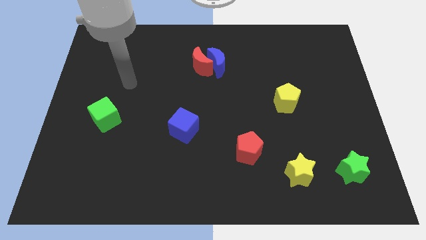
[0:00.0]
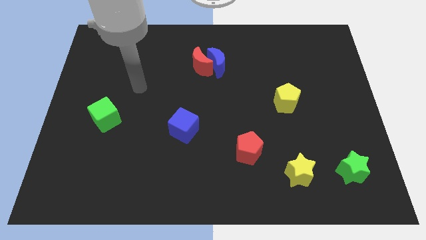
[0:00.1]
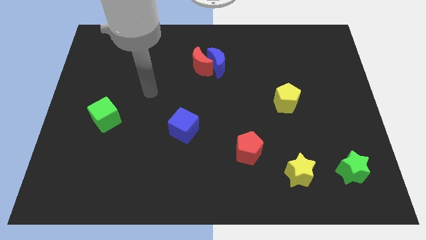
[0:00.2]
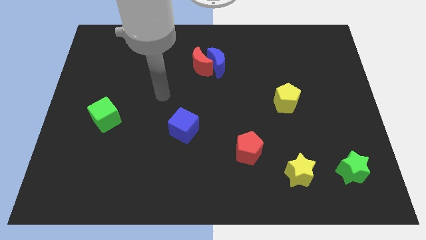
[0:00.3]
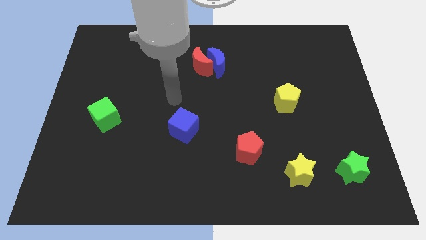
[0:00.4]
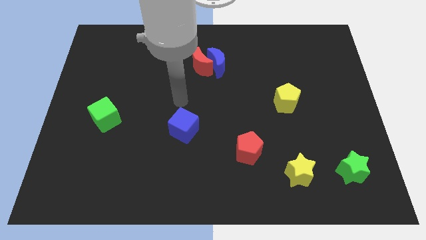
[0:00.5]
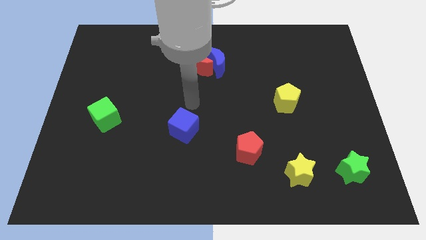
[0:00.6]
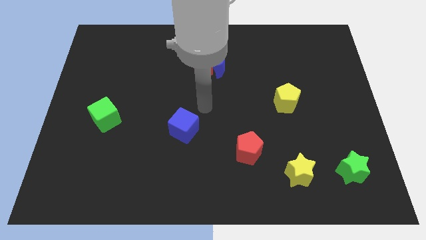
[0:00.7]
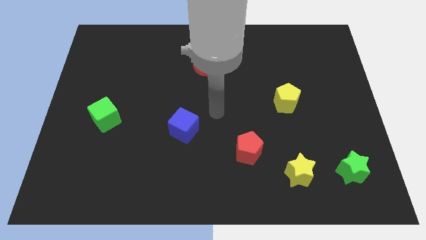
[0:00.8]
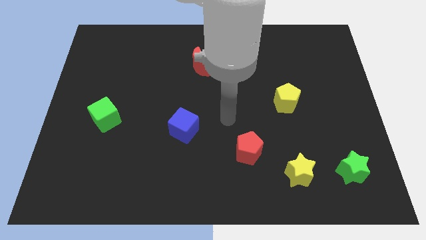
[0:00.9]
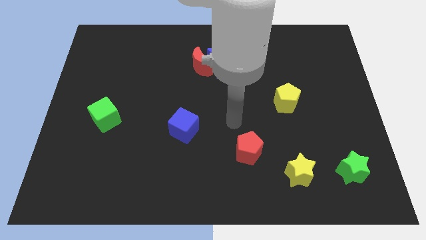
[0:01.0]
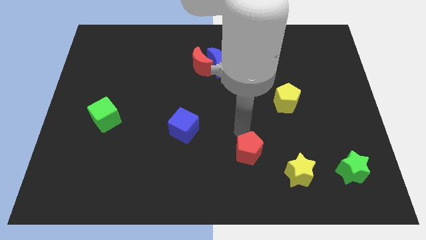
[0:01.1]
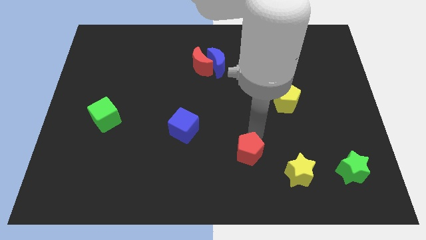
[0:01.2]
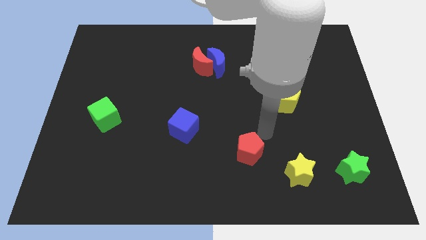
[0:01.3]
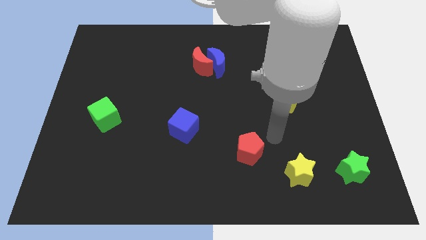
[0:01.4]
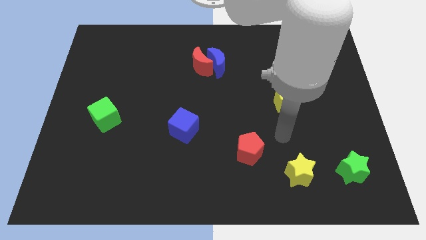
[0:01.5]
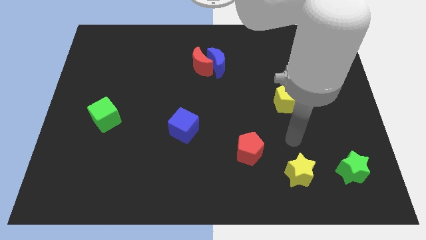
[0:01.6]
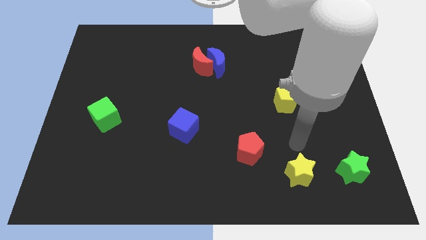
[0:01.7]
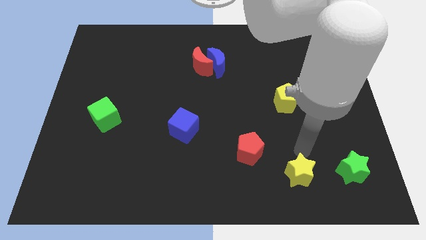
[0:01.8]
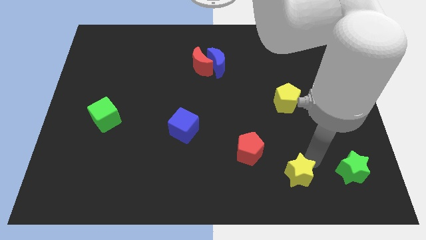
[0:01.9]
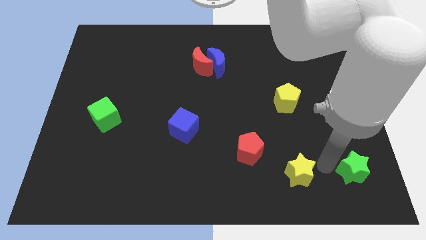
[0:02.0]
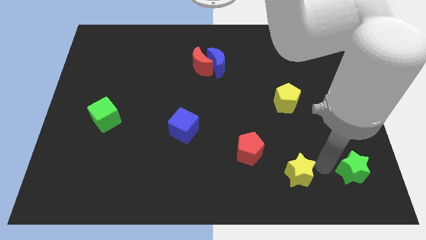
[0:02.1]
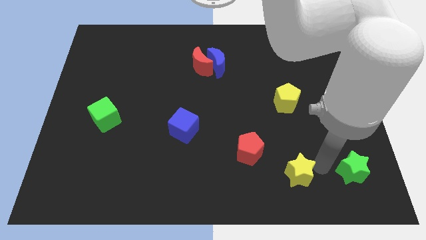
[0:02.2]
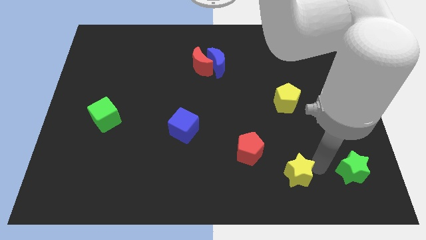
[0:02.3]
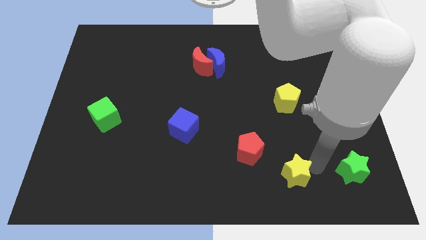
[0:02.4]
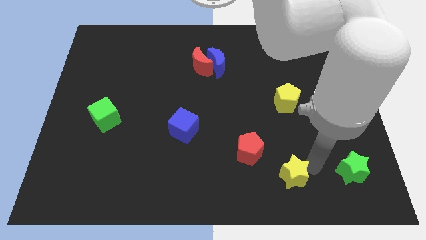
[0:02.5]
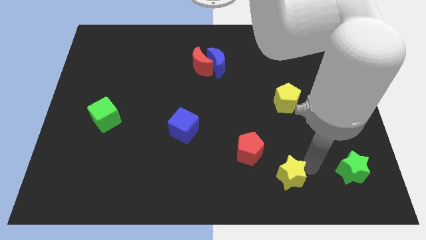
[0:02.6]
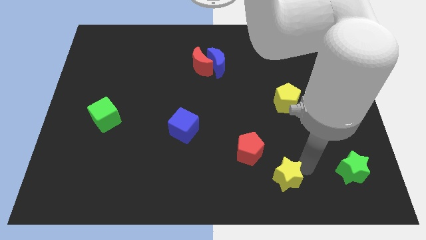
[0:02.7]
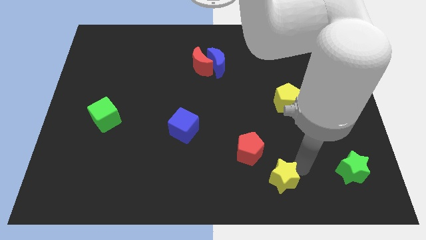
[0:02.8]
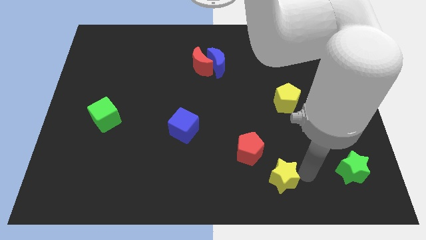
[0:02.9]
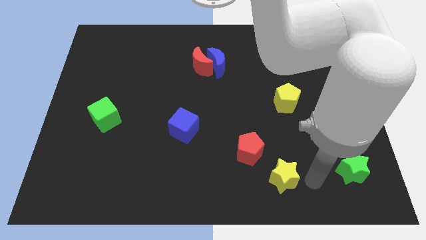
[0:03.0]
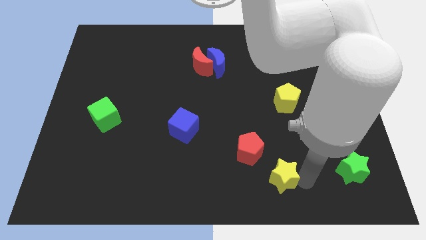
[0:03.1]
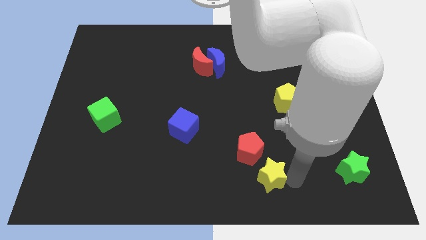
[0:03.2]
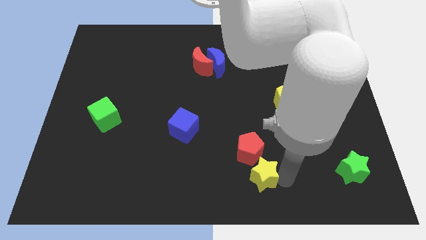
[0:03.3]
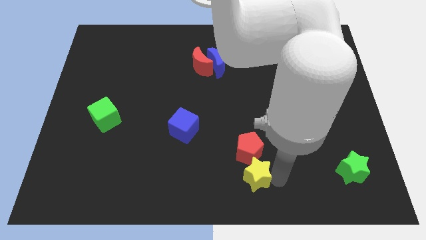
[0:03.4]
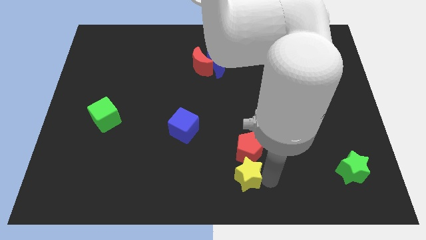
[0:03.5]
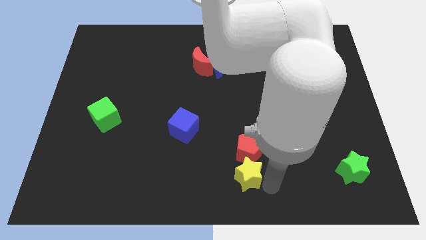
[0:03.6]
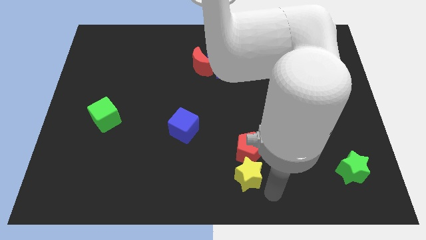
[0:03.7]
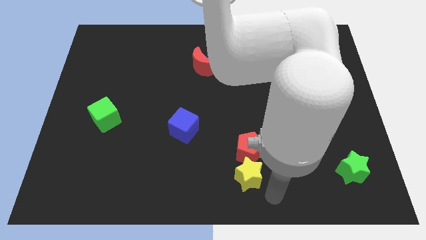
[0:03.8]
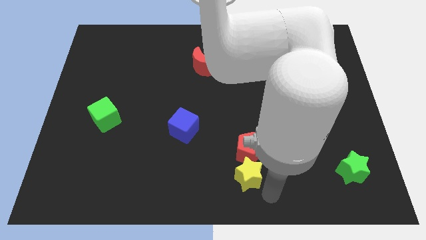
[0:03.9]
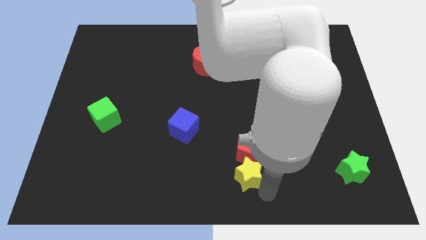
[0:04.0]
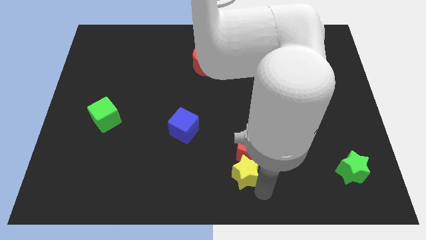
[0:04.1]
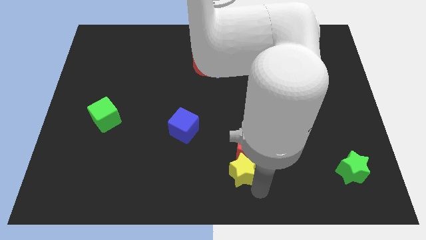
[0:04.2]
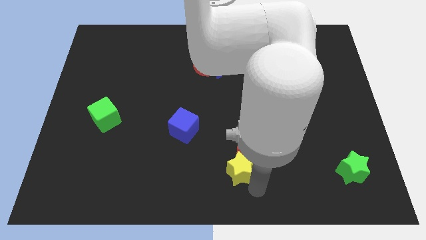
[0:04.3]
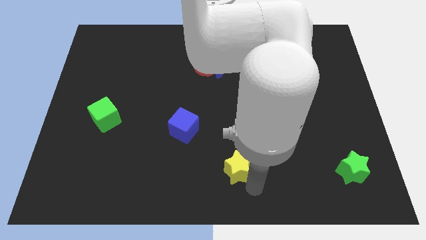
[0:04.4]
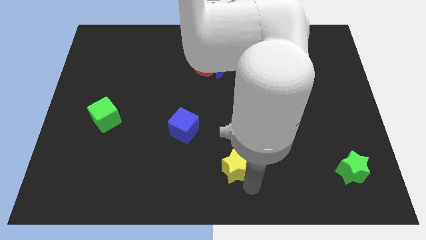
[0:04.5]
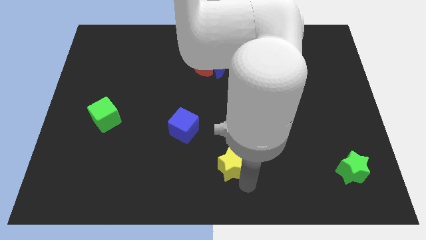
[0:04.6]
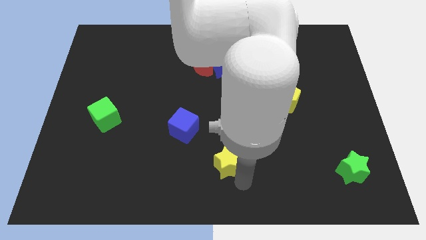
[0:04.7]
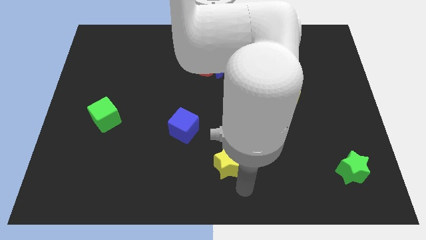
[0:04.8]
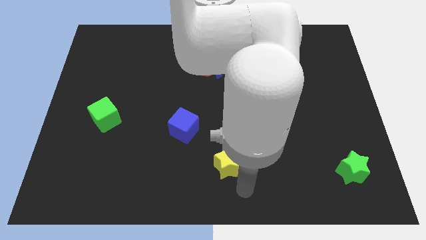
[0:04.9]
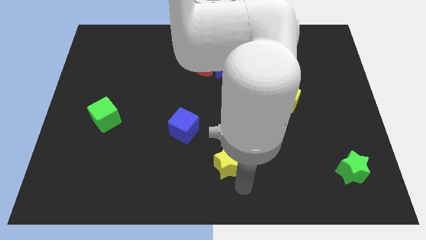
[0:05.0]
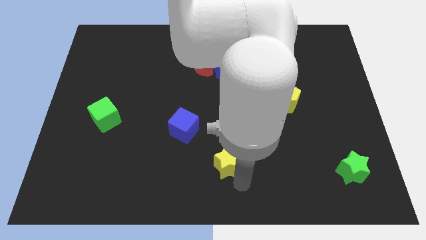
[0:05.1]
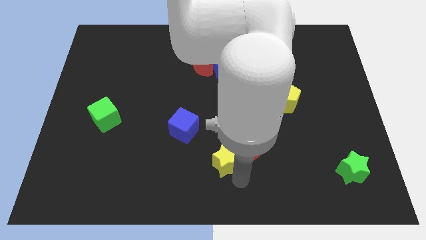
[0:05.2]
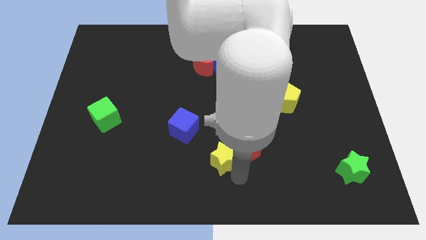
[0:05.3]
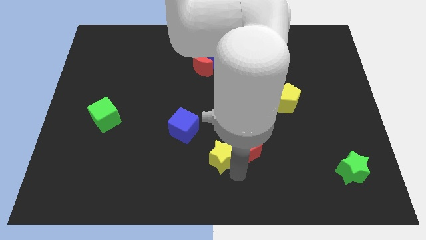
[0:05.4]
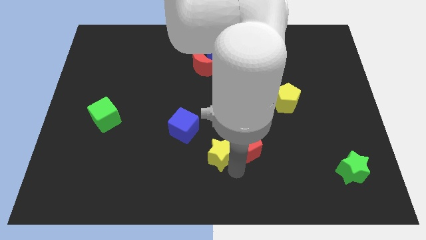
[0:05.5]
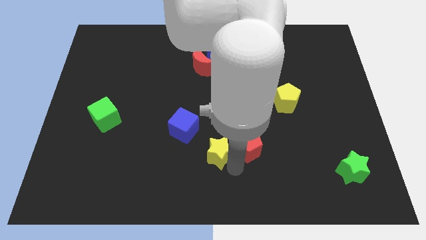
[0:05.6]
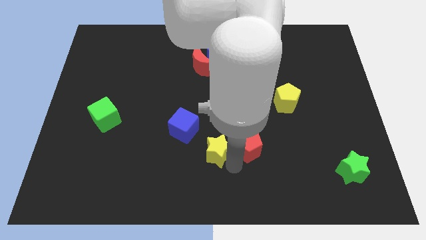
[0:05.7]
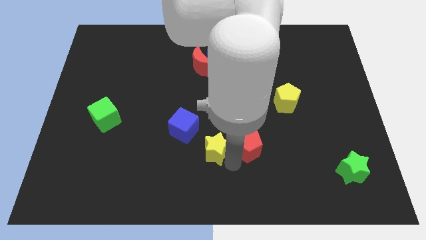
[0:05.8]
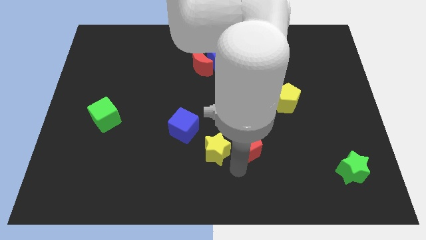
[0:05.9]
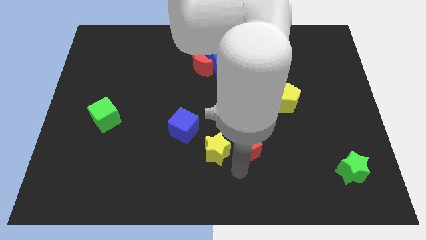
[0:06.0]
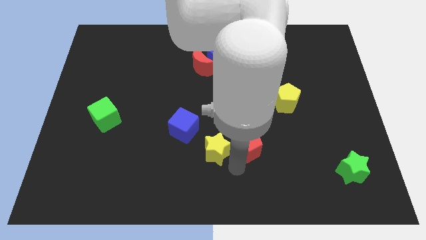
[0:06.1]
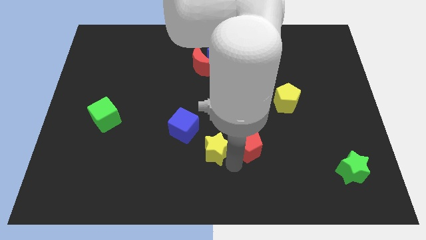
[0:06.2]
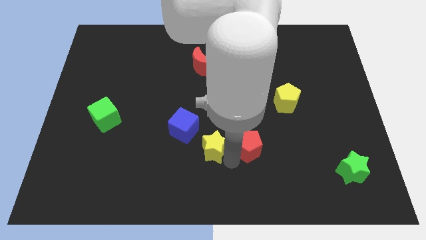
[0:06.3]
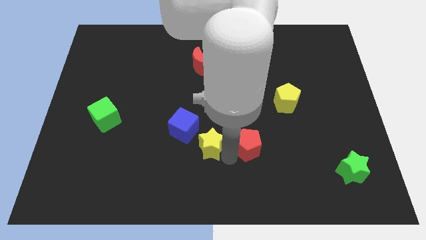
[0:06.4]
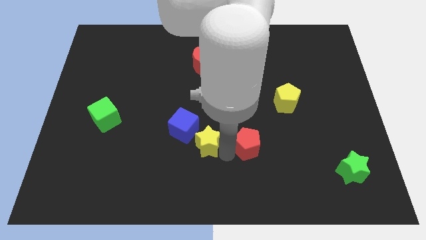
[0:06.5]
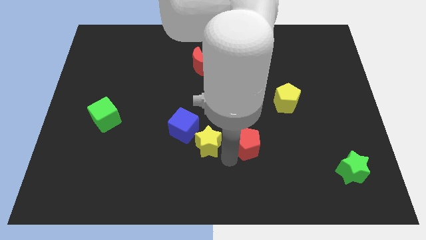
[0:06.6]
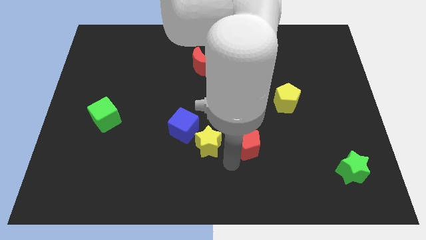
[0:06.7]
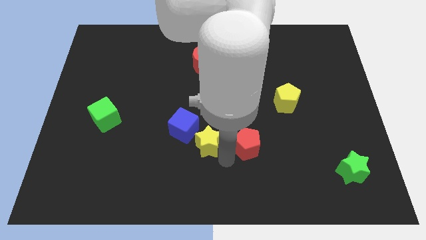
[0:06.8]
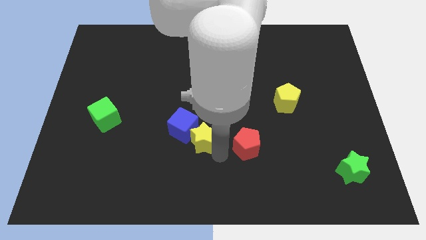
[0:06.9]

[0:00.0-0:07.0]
move the yellow star to the blue cube
